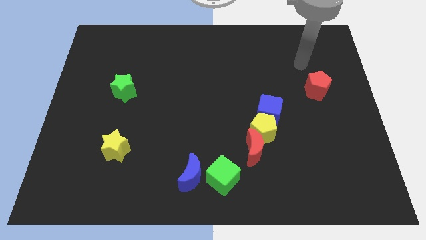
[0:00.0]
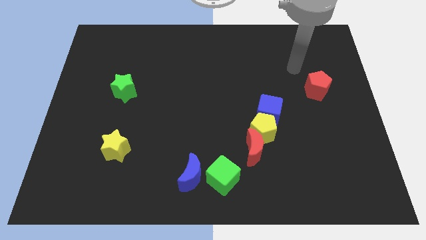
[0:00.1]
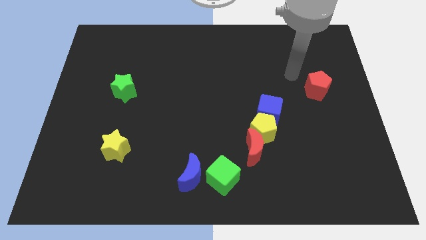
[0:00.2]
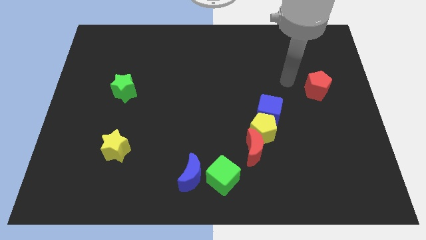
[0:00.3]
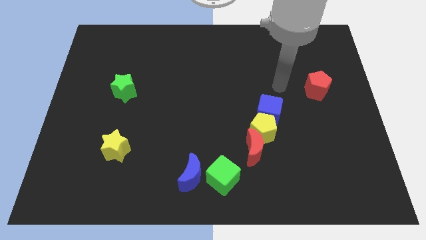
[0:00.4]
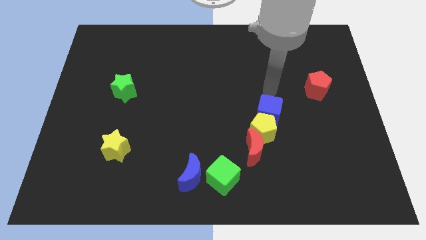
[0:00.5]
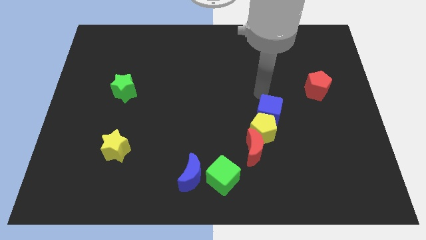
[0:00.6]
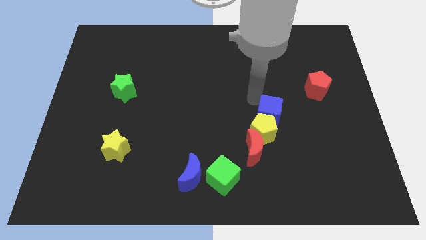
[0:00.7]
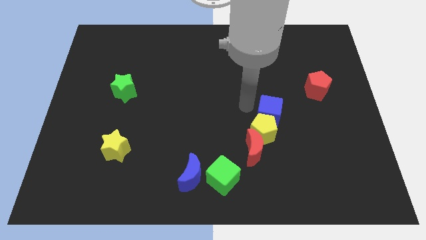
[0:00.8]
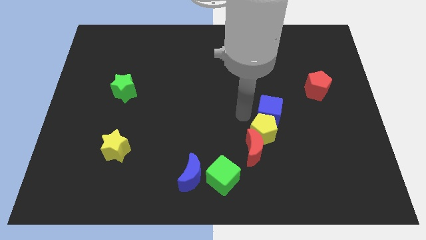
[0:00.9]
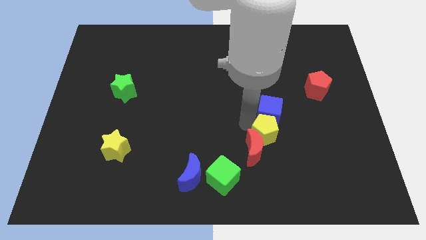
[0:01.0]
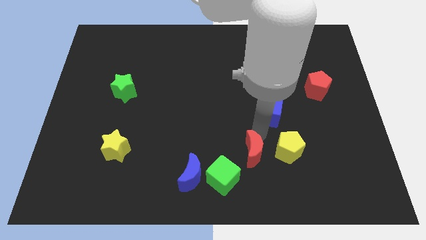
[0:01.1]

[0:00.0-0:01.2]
separate the blue cube from the yellow pentagon

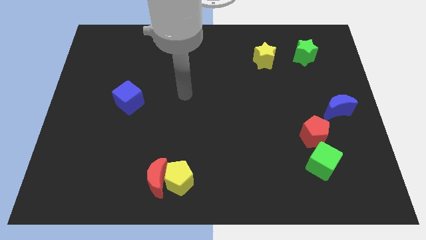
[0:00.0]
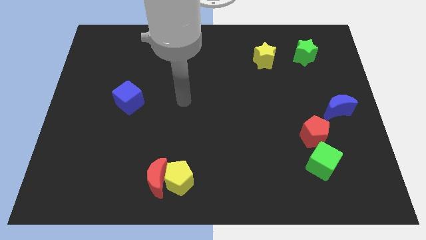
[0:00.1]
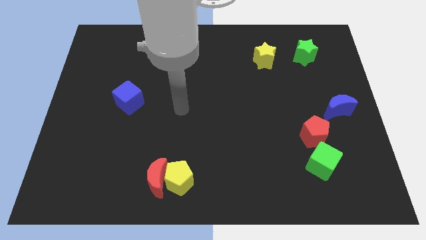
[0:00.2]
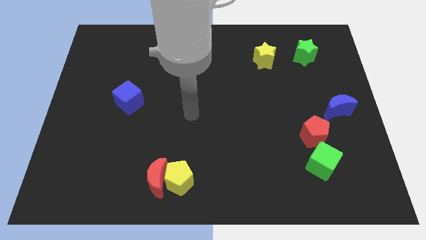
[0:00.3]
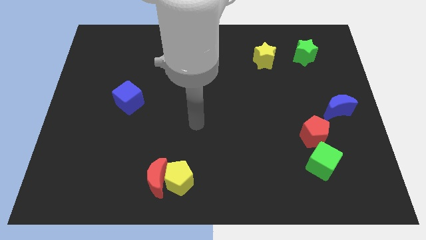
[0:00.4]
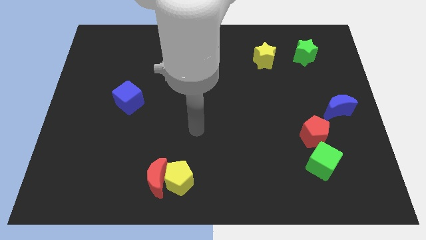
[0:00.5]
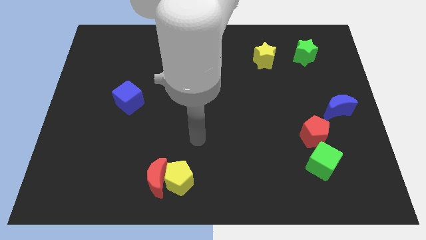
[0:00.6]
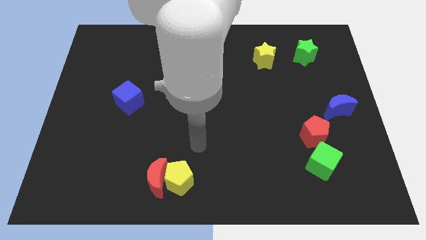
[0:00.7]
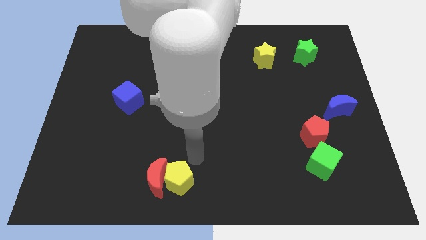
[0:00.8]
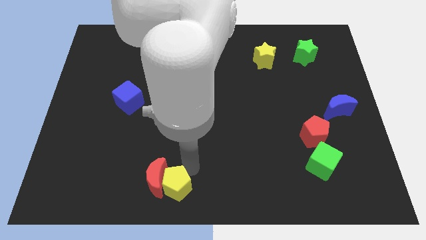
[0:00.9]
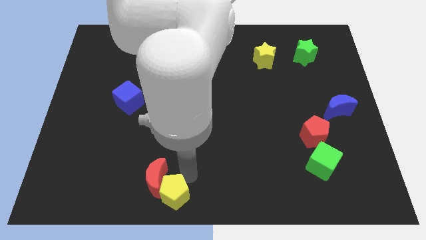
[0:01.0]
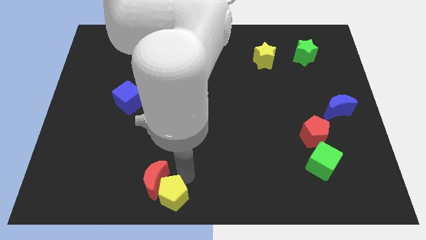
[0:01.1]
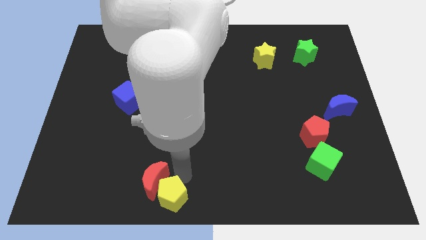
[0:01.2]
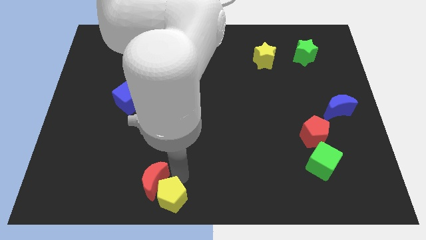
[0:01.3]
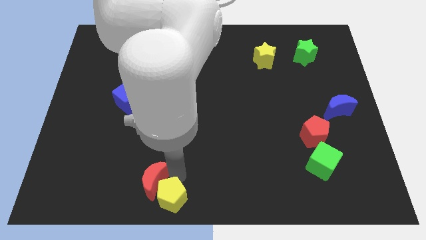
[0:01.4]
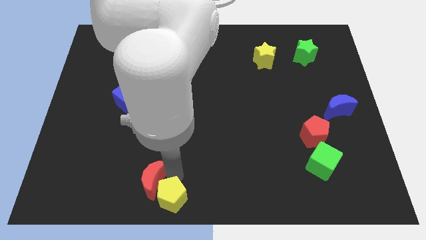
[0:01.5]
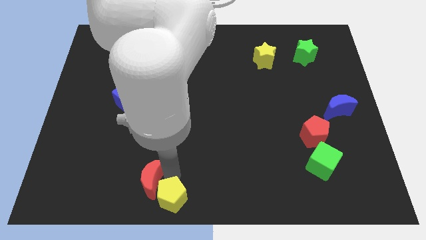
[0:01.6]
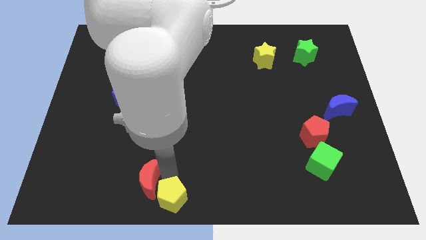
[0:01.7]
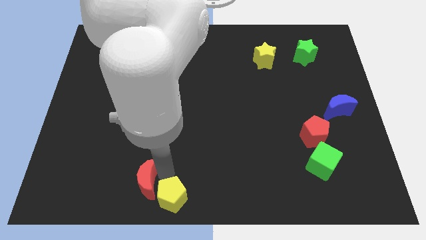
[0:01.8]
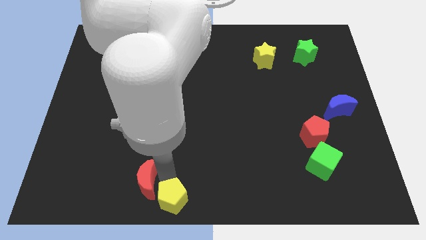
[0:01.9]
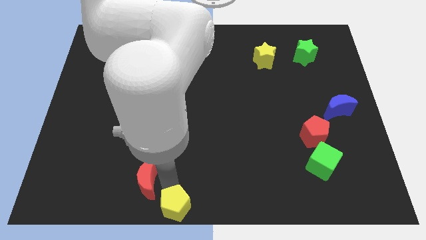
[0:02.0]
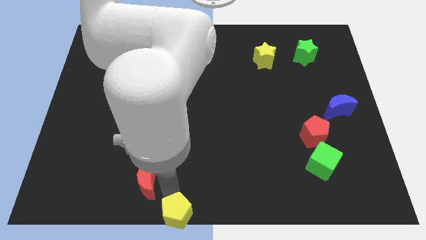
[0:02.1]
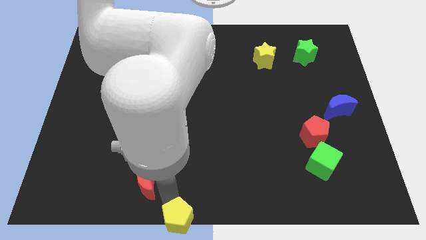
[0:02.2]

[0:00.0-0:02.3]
separate the red moon from the yellow pentagon

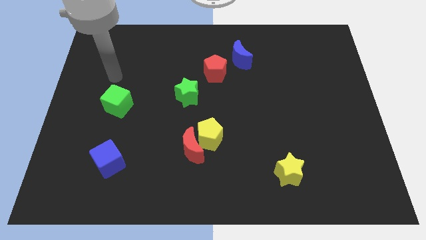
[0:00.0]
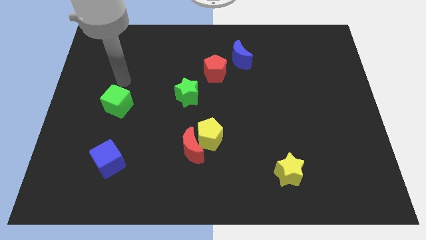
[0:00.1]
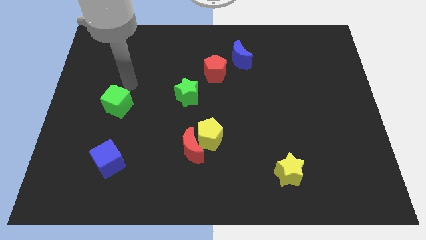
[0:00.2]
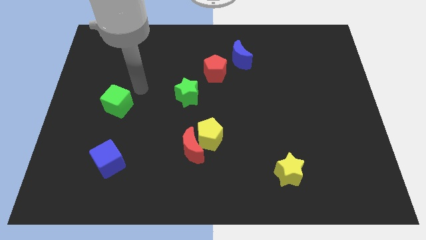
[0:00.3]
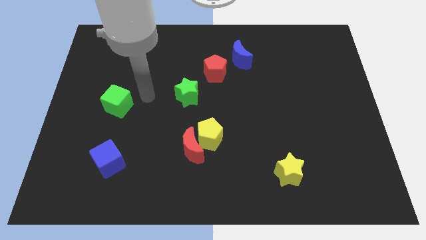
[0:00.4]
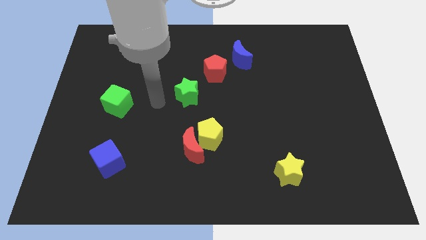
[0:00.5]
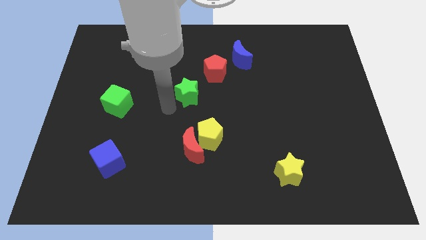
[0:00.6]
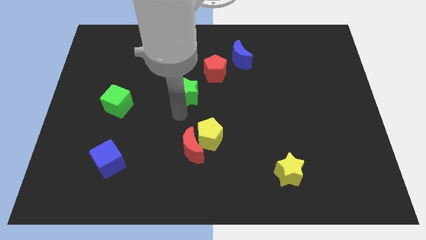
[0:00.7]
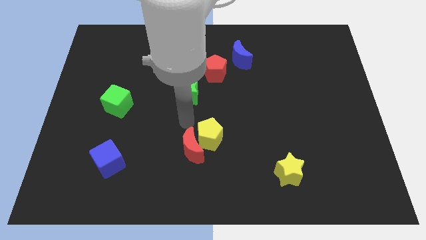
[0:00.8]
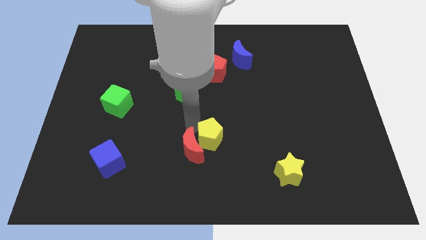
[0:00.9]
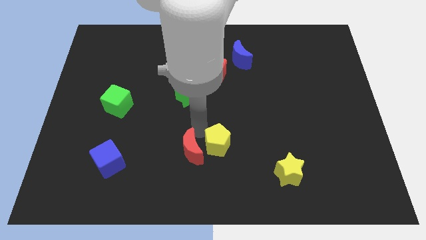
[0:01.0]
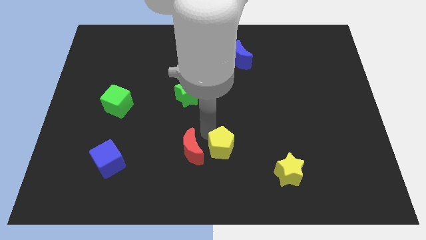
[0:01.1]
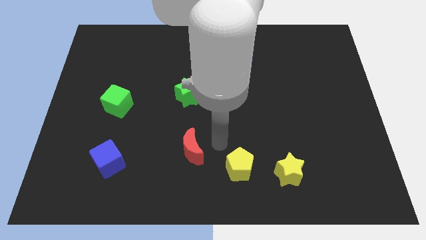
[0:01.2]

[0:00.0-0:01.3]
move the red moon away from the yellow pentagon

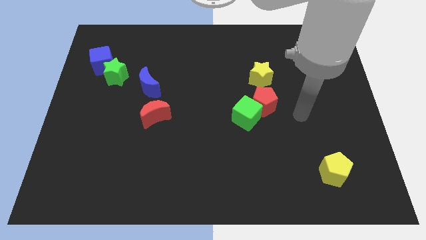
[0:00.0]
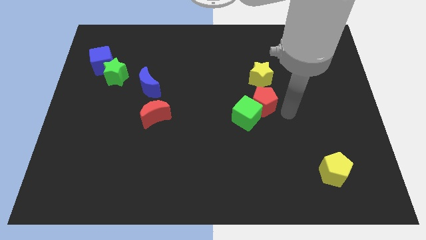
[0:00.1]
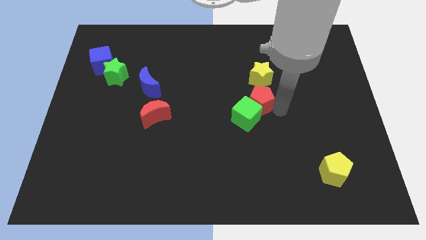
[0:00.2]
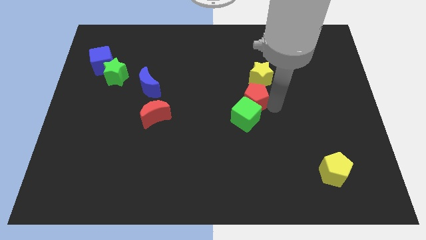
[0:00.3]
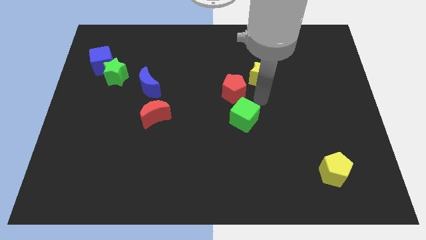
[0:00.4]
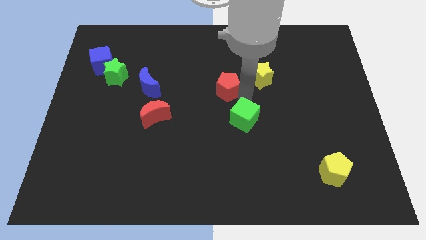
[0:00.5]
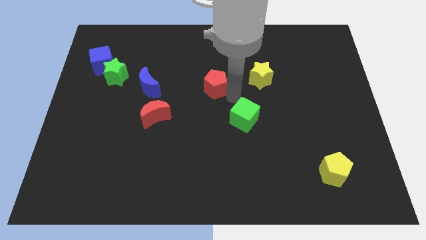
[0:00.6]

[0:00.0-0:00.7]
pull the green cube apart from the red pentagon

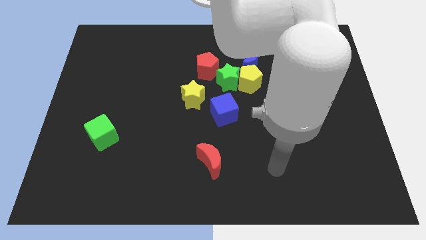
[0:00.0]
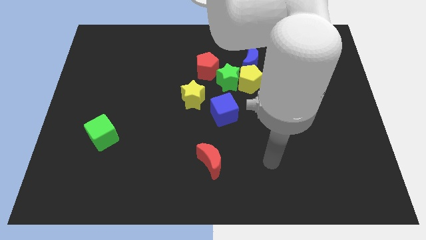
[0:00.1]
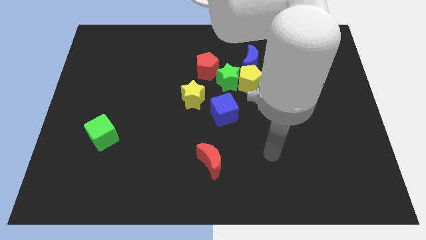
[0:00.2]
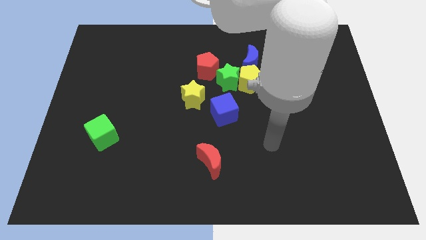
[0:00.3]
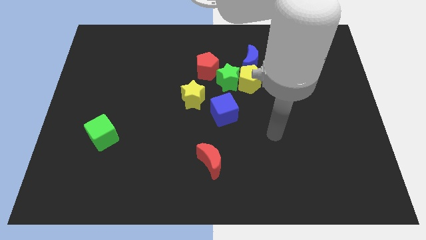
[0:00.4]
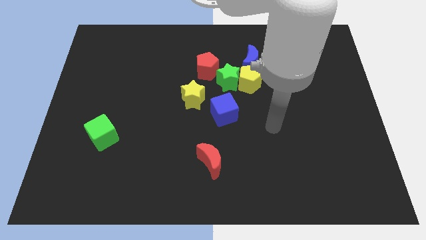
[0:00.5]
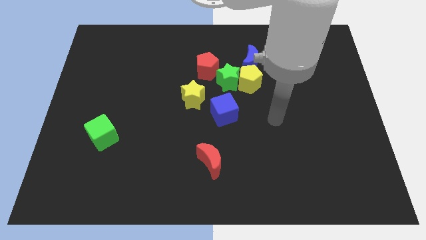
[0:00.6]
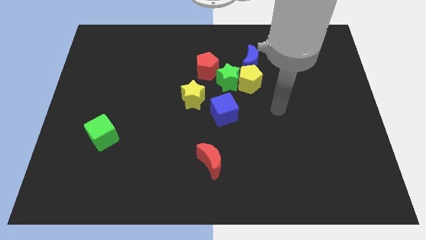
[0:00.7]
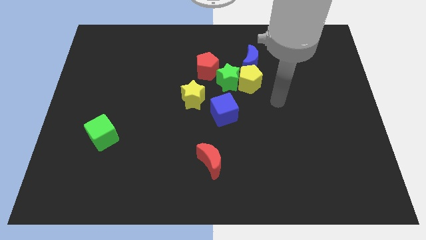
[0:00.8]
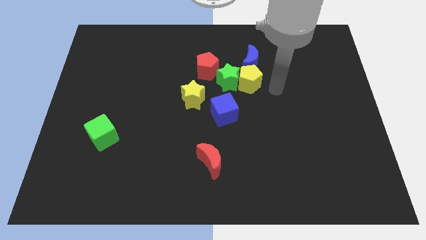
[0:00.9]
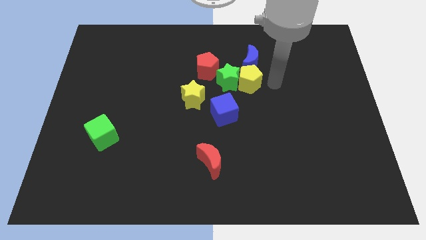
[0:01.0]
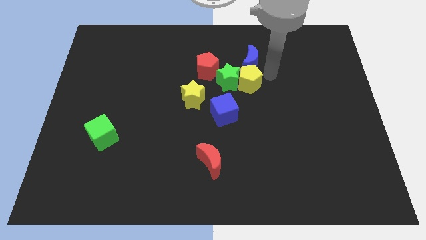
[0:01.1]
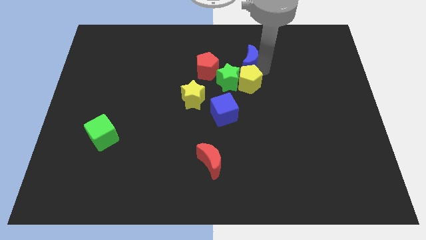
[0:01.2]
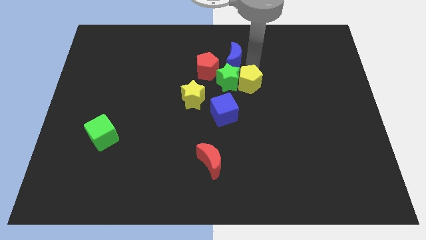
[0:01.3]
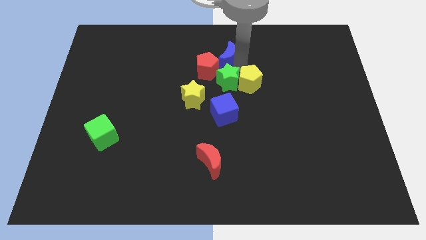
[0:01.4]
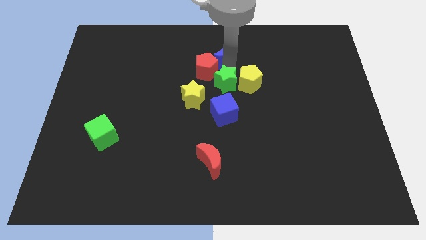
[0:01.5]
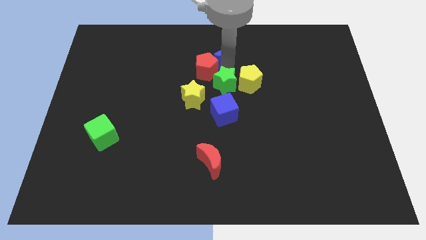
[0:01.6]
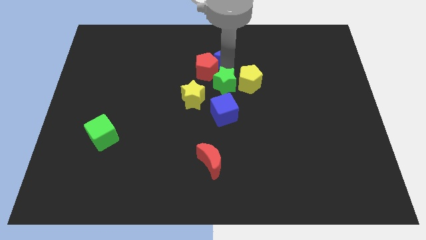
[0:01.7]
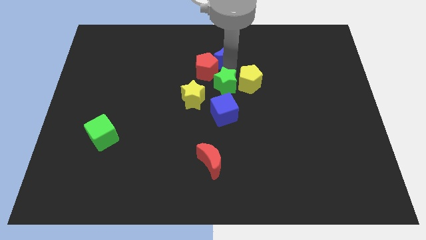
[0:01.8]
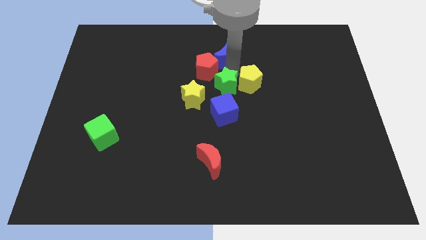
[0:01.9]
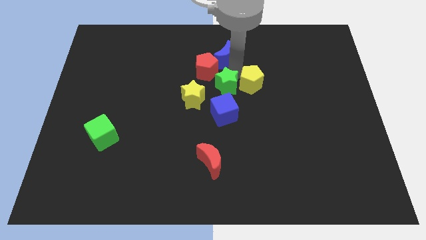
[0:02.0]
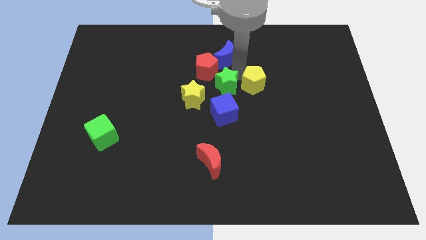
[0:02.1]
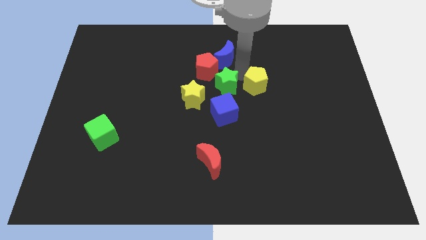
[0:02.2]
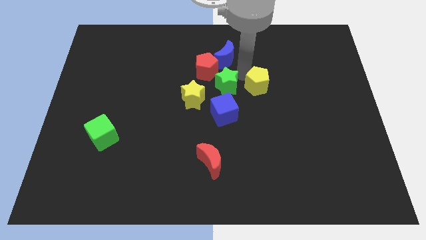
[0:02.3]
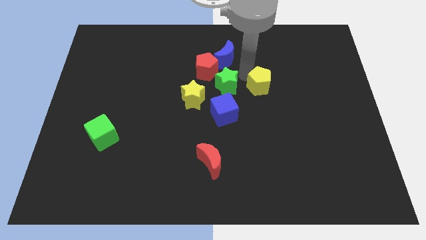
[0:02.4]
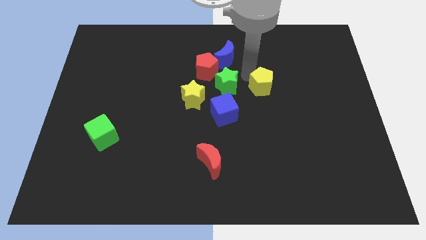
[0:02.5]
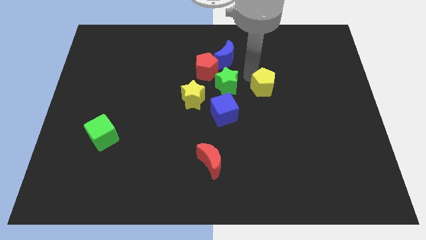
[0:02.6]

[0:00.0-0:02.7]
move the yellow pentagon away from the green star and blue moon

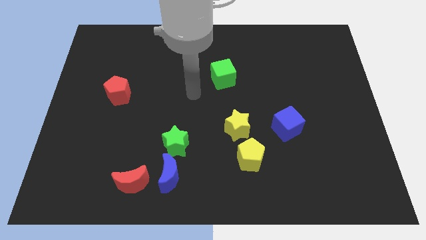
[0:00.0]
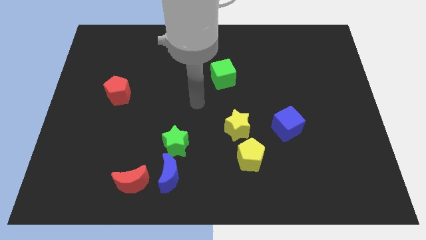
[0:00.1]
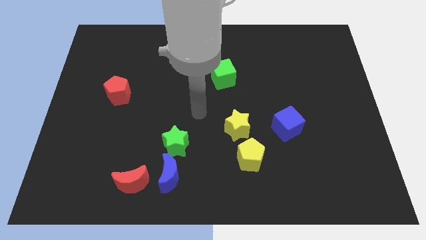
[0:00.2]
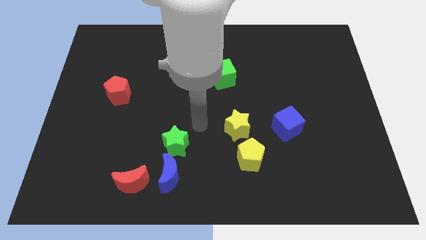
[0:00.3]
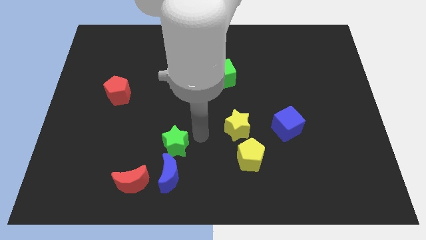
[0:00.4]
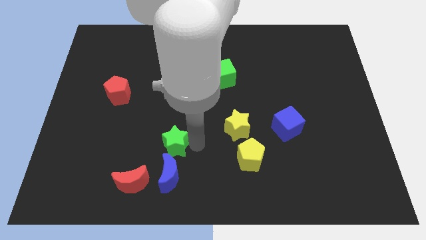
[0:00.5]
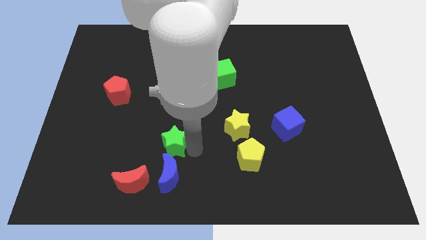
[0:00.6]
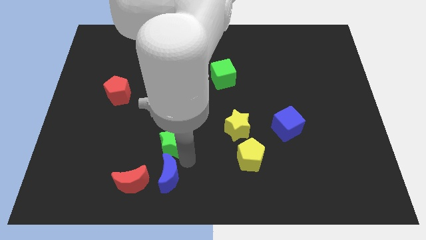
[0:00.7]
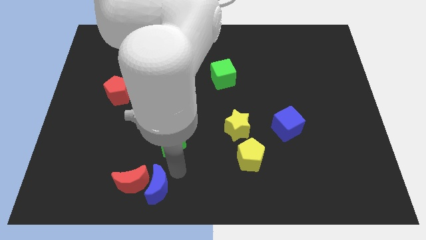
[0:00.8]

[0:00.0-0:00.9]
pull the green star apart from the blue moon

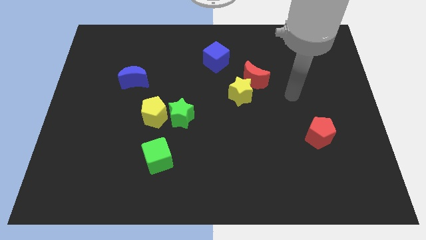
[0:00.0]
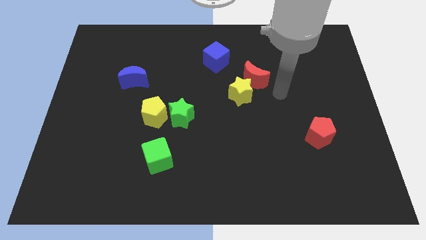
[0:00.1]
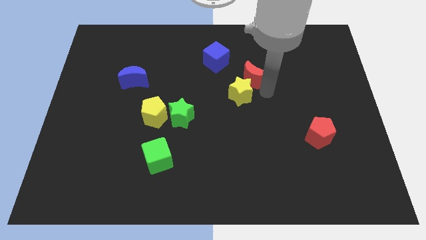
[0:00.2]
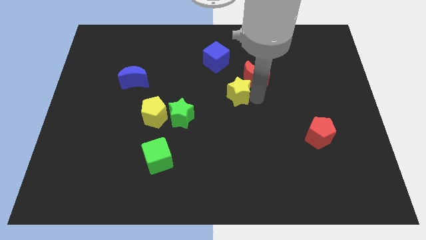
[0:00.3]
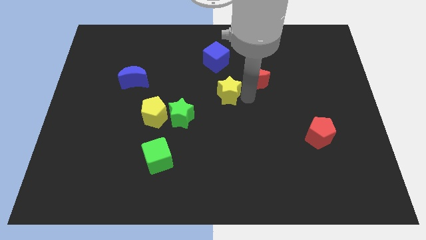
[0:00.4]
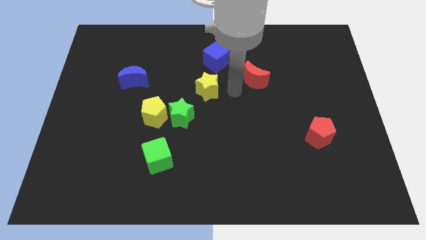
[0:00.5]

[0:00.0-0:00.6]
pull the red moon apart from the yellow star
